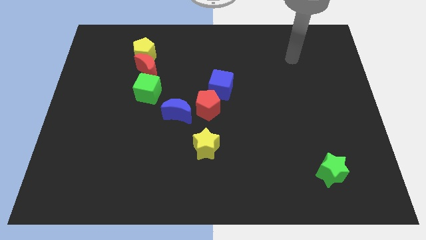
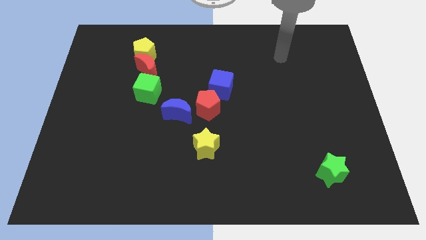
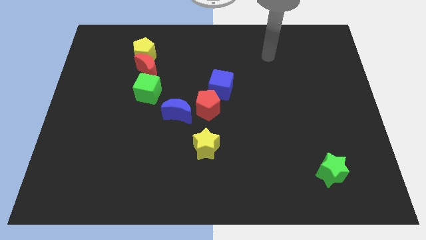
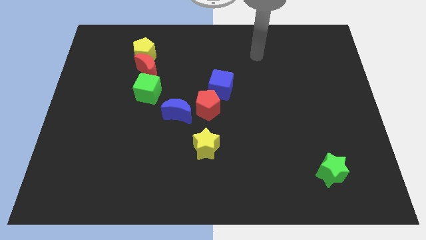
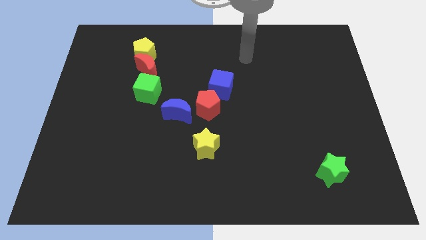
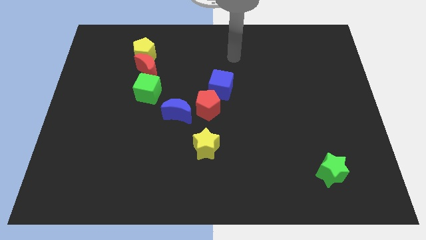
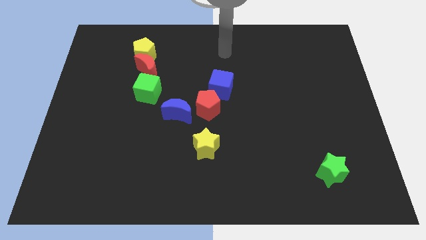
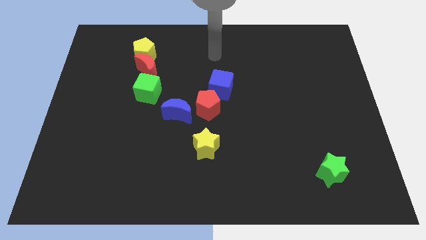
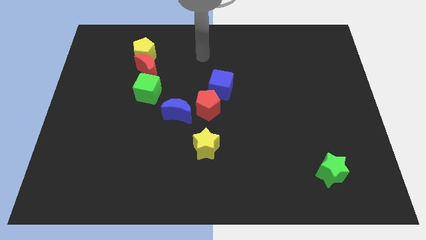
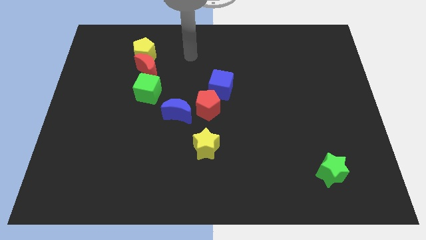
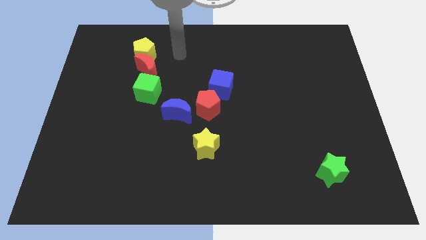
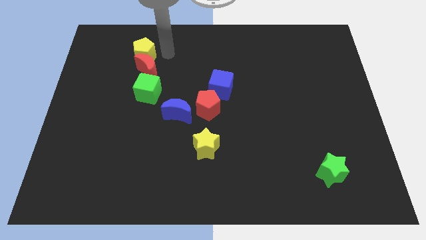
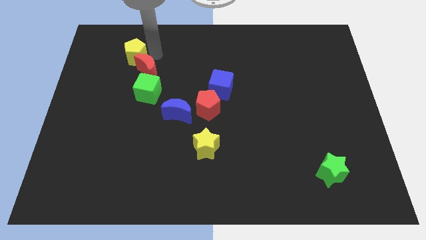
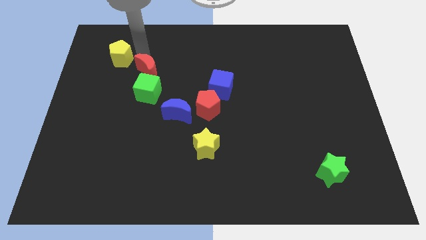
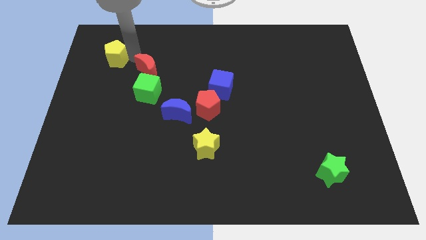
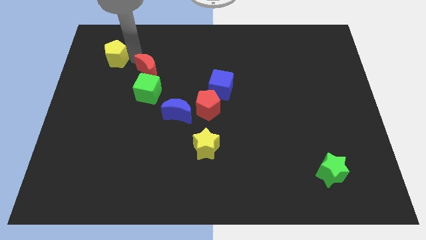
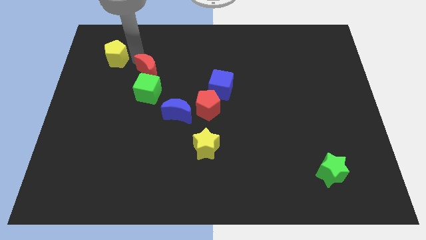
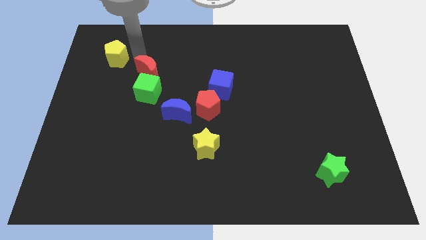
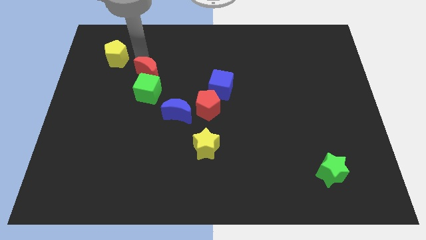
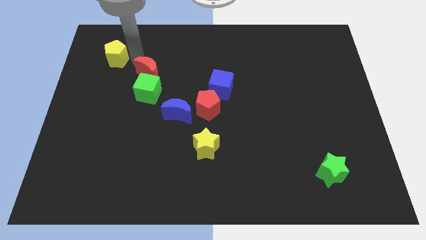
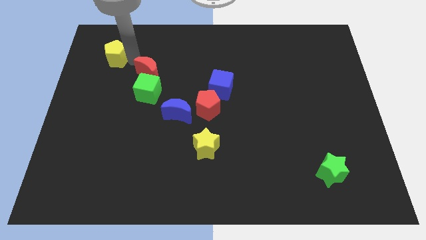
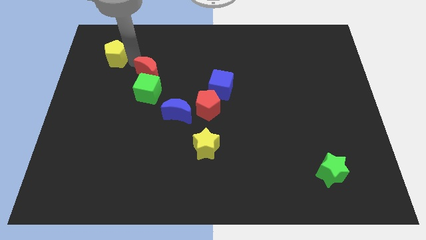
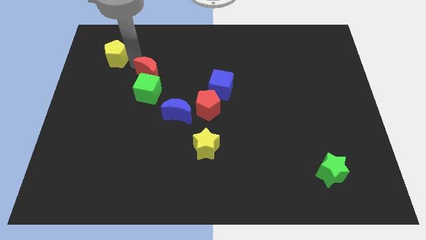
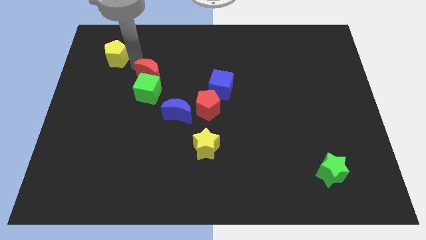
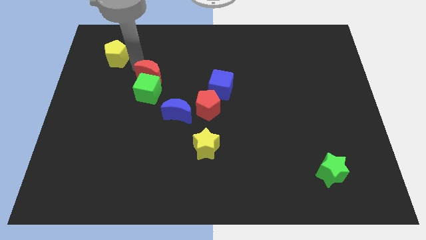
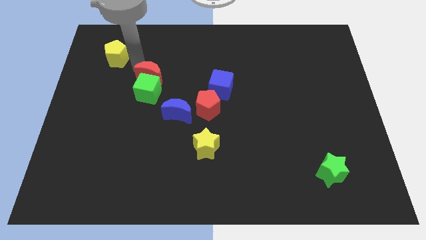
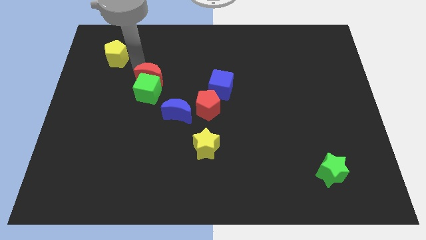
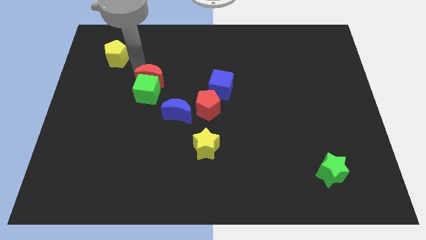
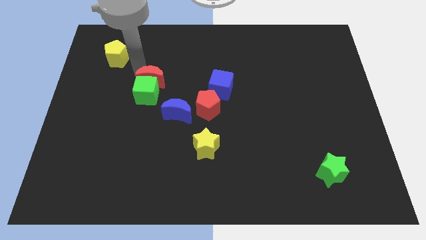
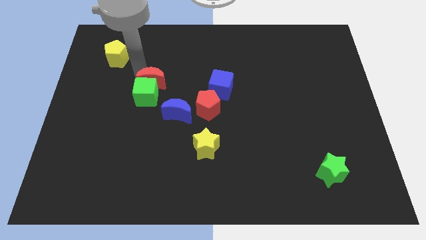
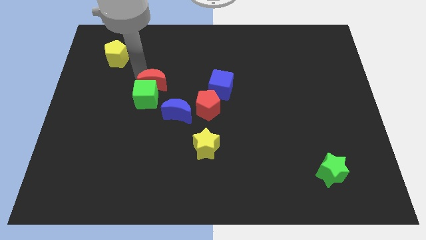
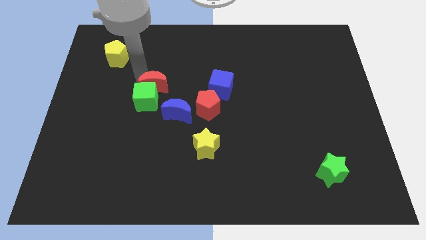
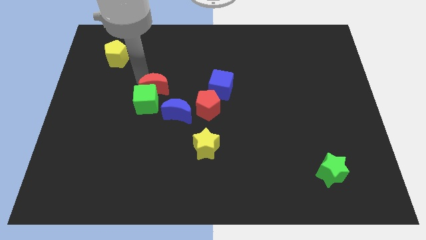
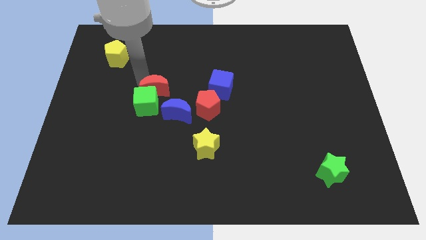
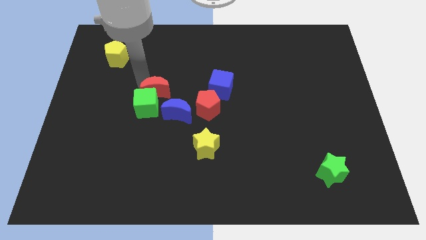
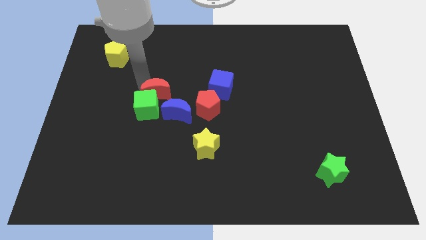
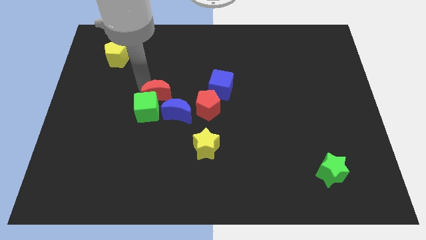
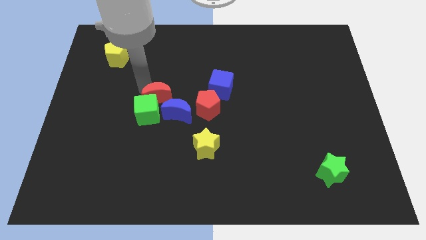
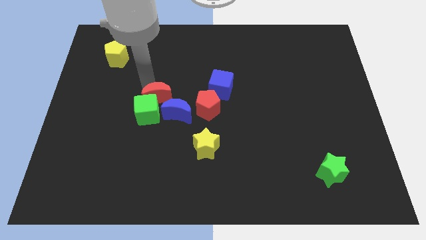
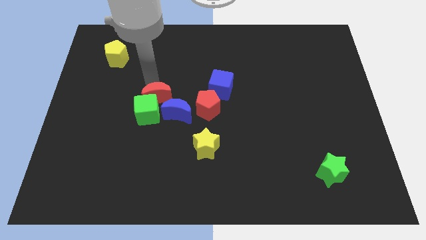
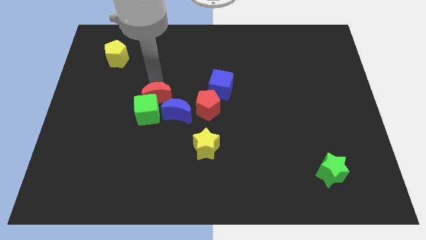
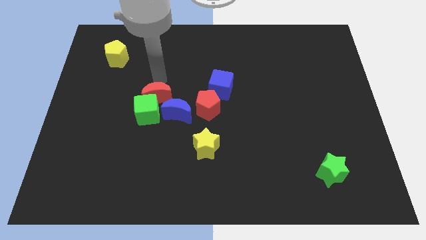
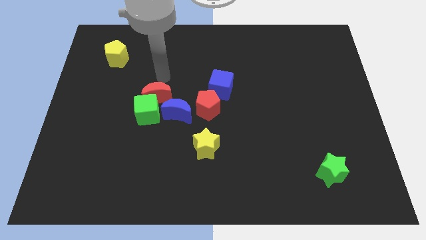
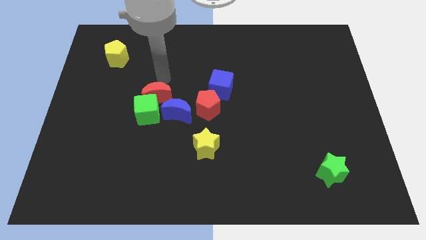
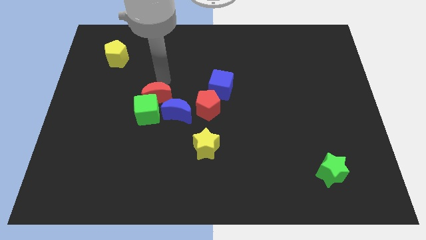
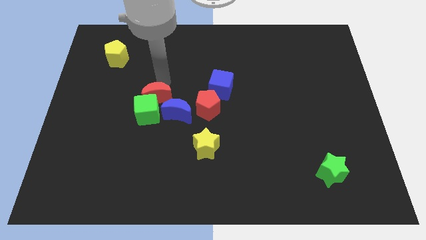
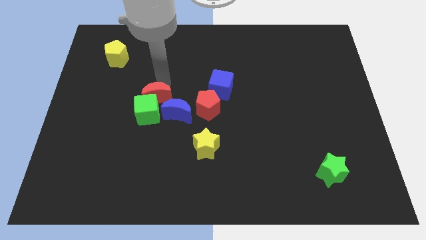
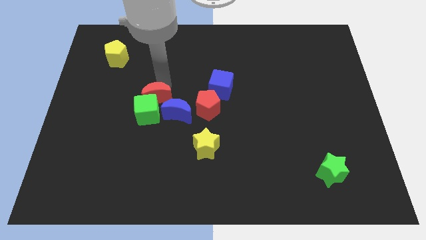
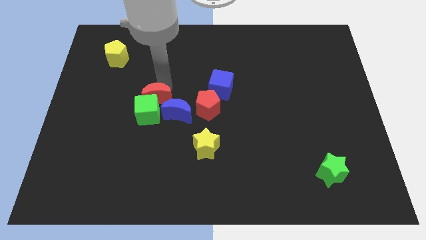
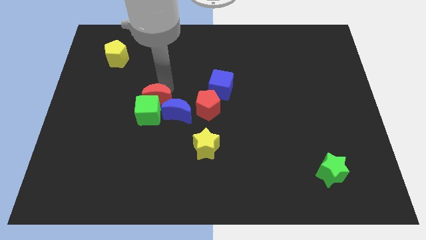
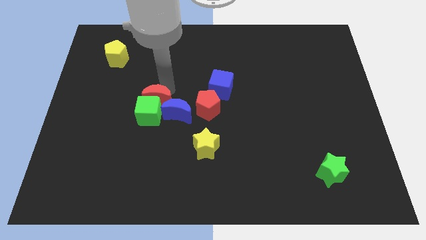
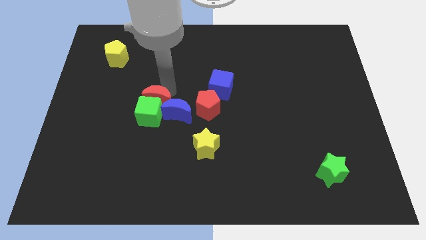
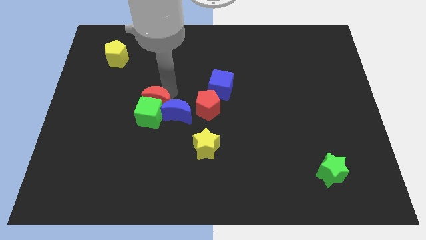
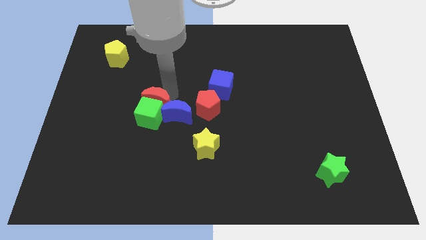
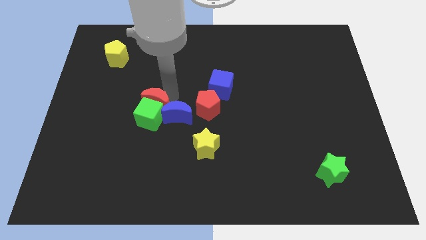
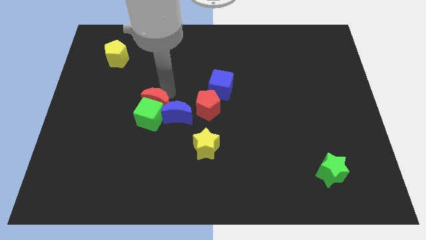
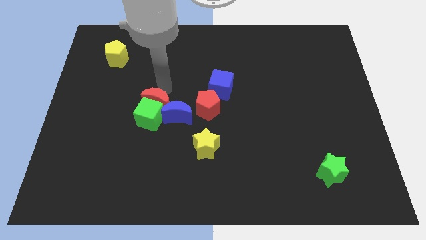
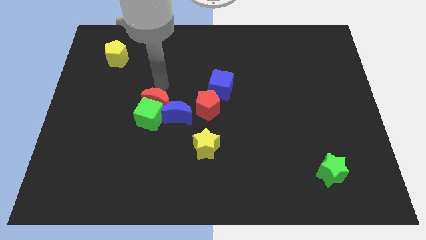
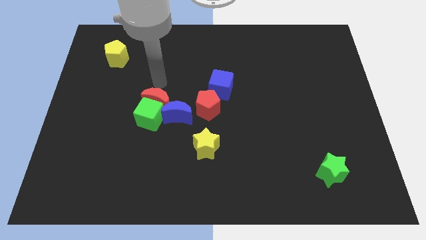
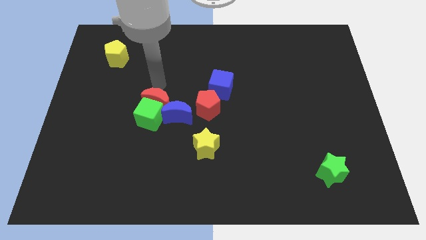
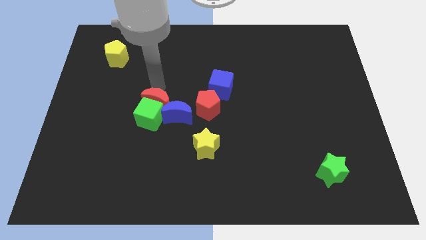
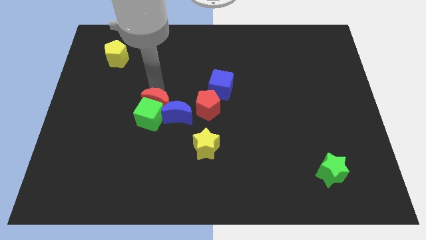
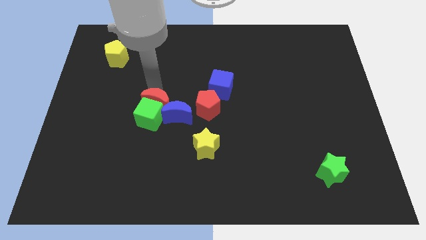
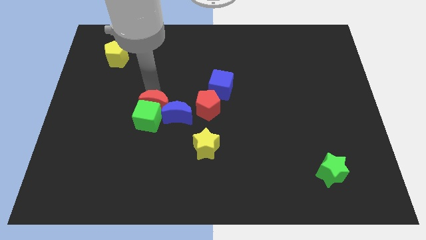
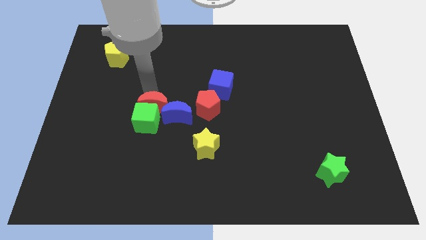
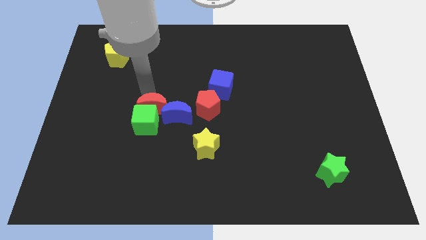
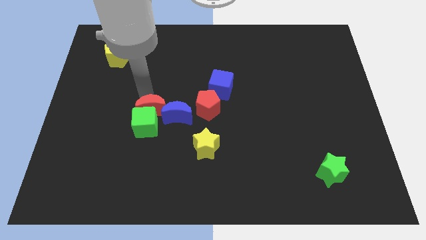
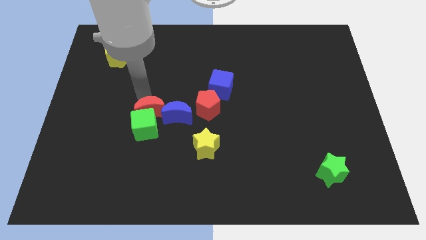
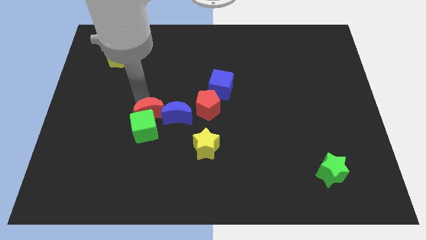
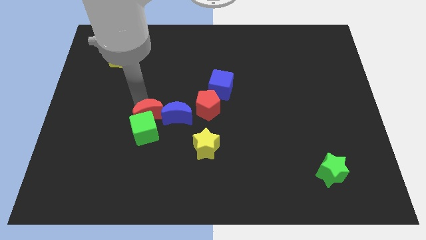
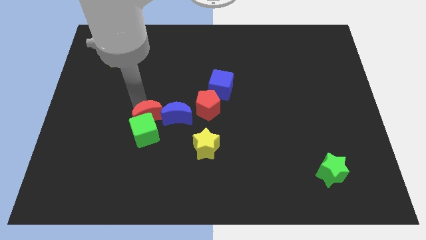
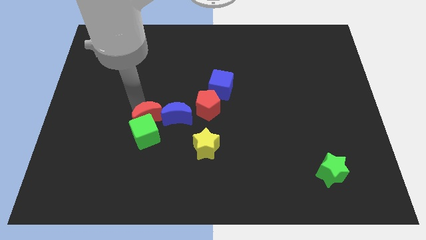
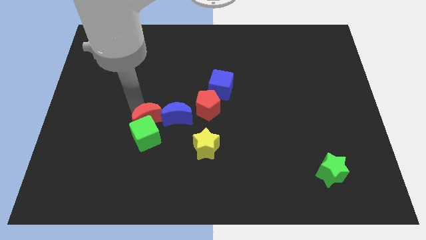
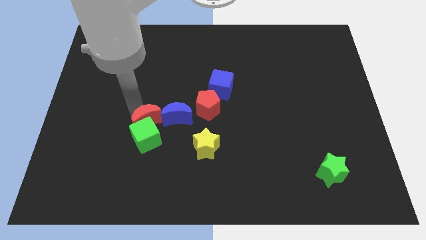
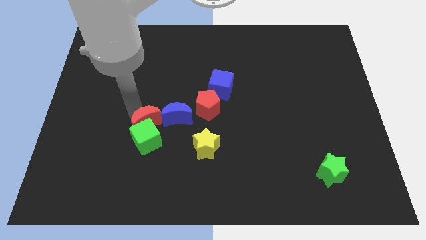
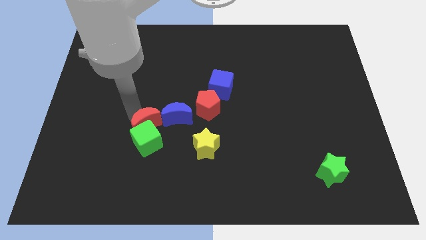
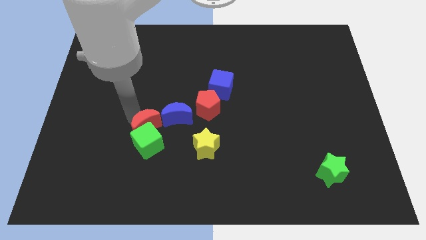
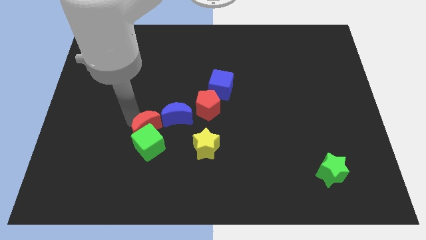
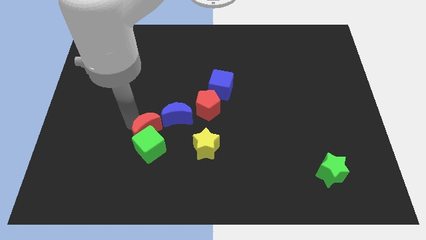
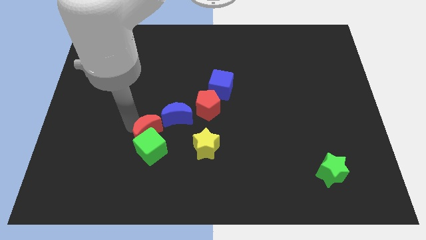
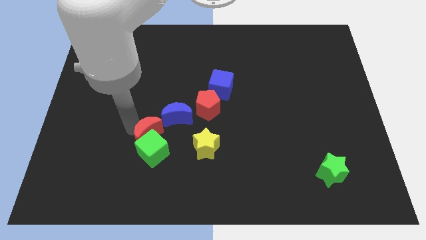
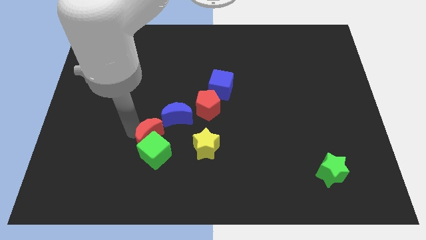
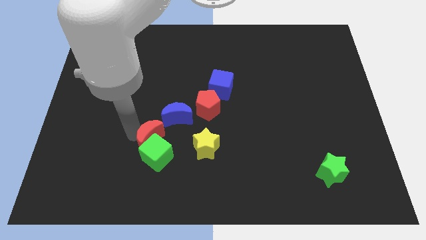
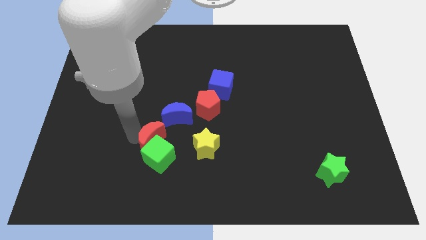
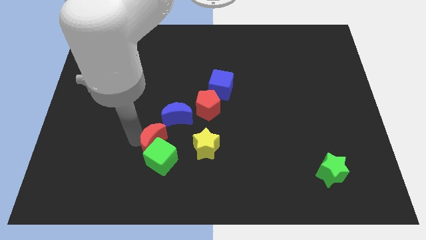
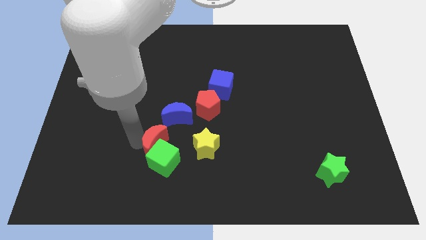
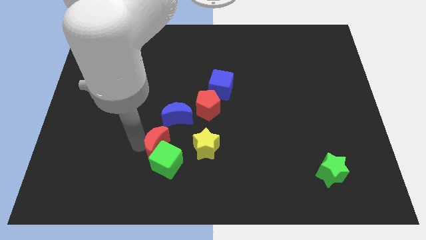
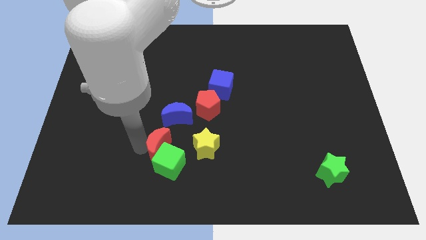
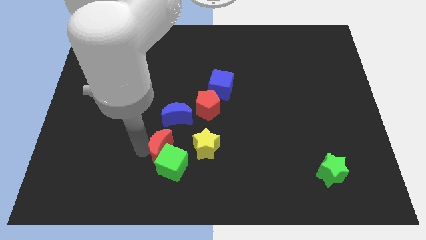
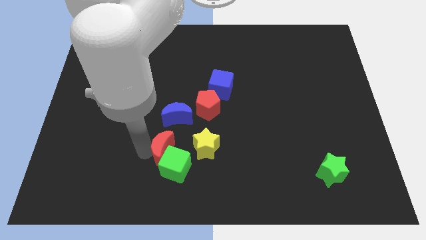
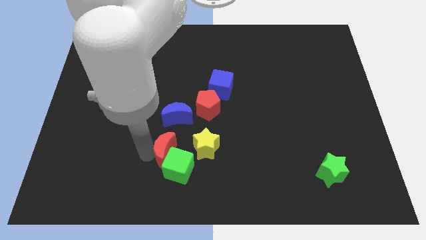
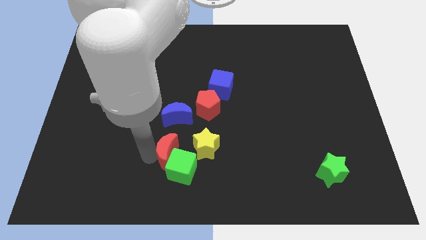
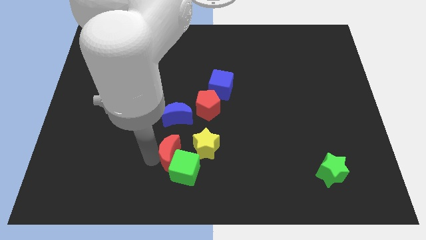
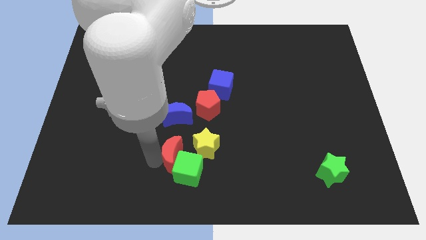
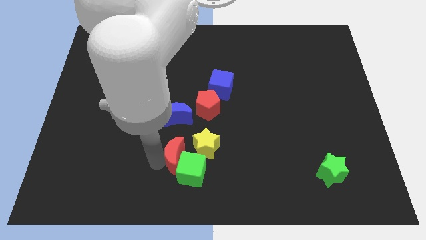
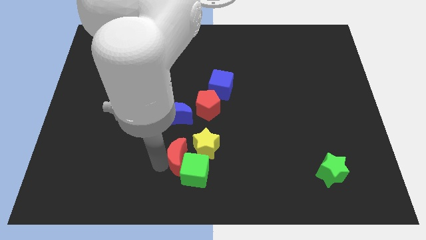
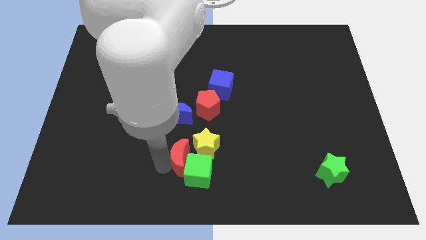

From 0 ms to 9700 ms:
push the red moon close to the yellow star
